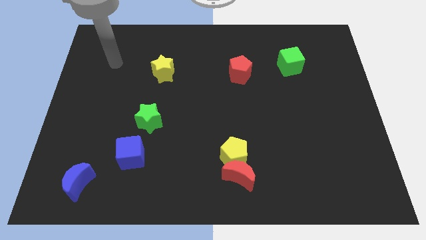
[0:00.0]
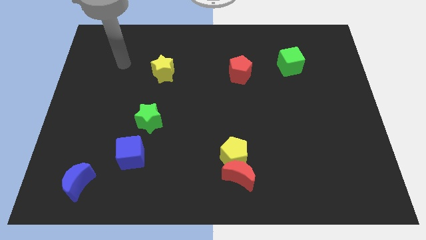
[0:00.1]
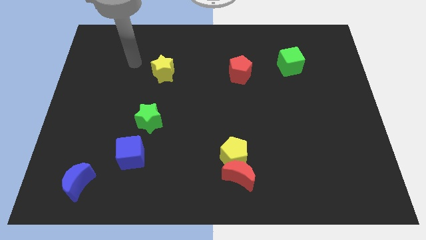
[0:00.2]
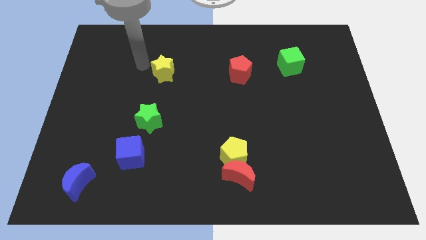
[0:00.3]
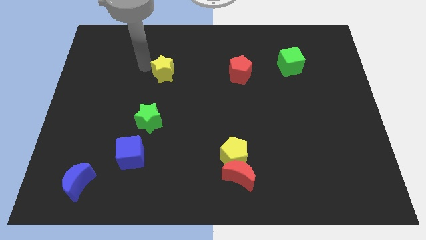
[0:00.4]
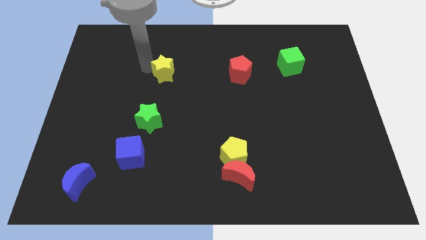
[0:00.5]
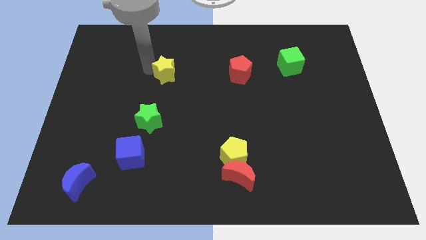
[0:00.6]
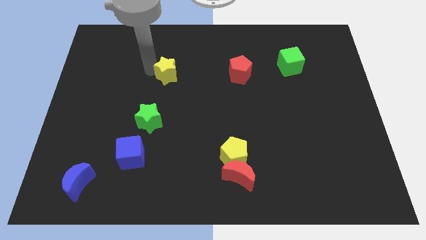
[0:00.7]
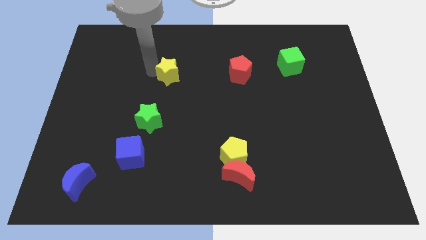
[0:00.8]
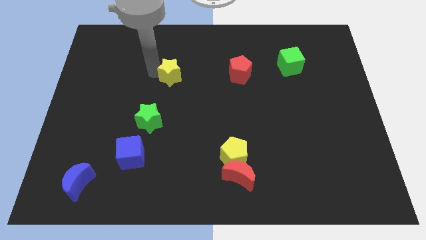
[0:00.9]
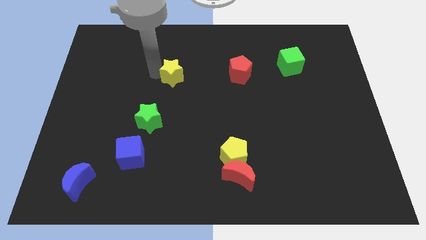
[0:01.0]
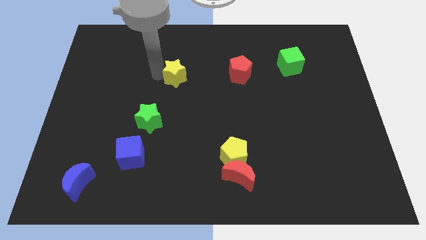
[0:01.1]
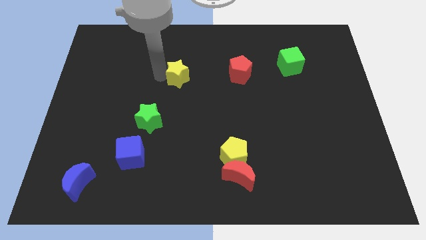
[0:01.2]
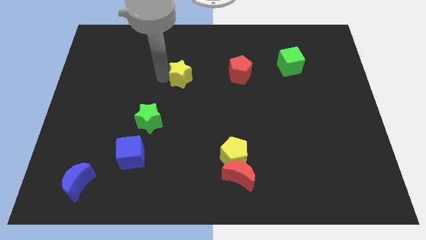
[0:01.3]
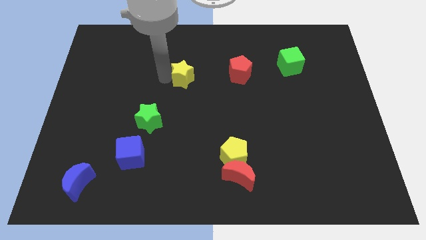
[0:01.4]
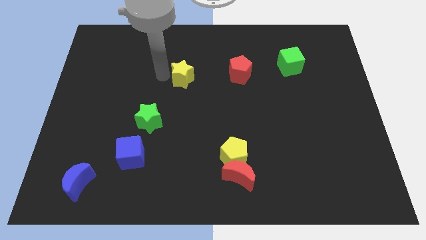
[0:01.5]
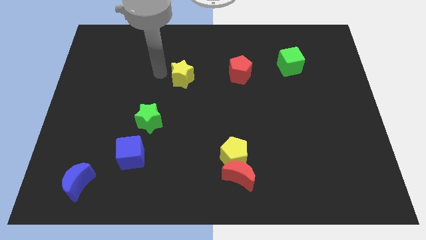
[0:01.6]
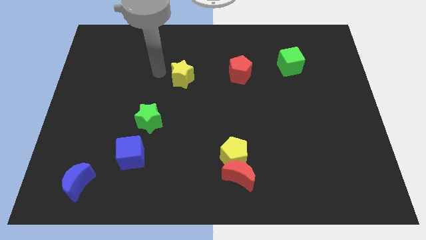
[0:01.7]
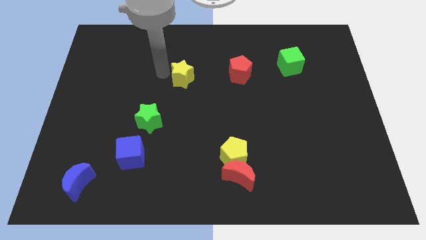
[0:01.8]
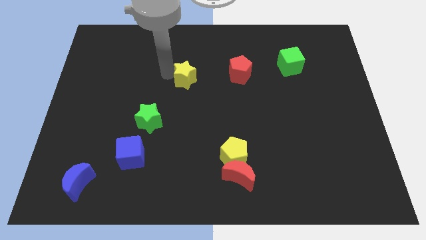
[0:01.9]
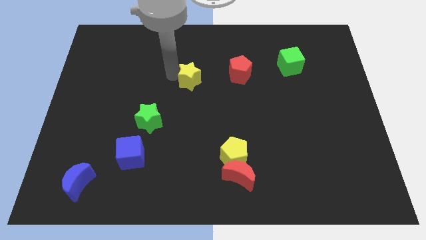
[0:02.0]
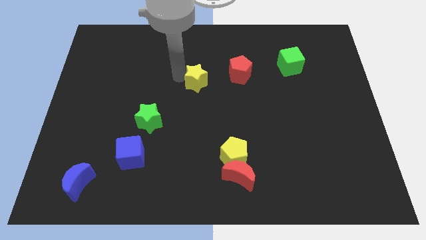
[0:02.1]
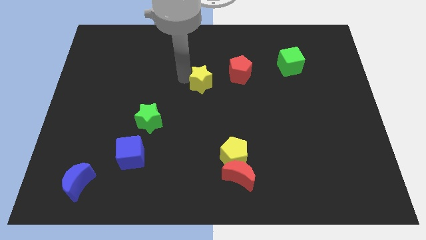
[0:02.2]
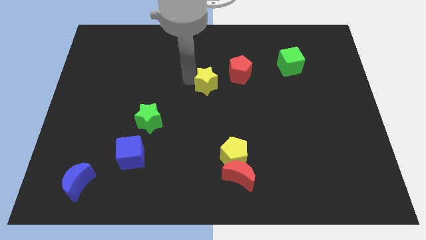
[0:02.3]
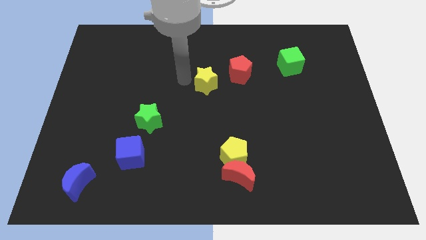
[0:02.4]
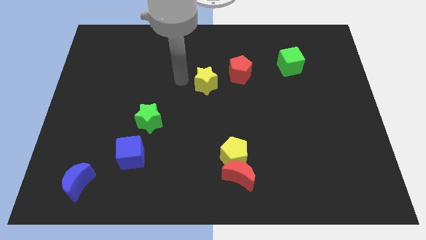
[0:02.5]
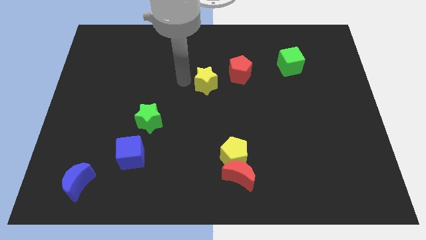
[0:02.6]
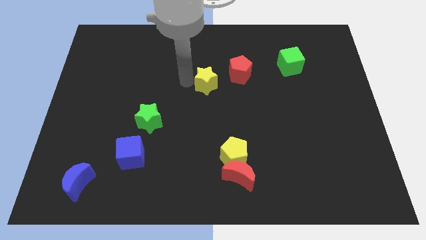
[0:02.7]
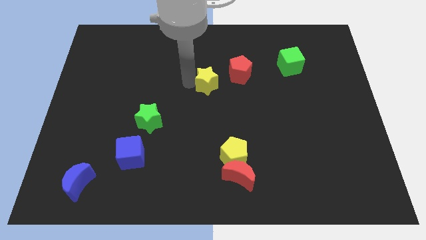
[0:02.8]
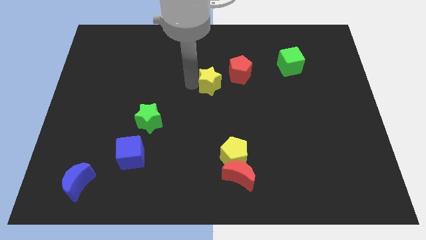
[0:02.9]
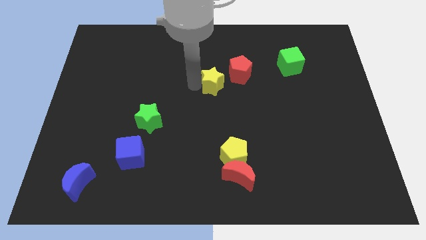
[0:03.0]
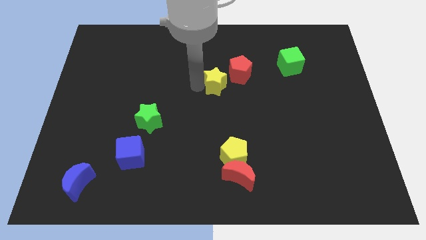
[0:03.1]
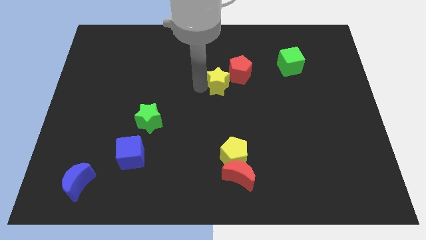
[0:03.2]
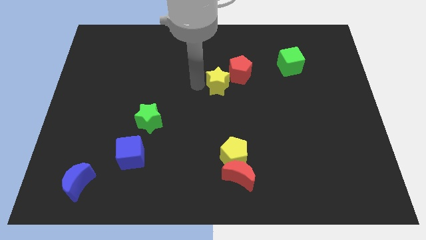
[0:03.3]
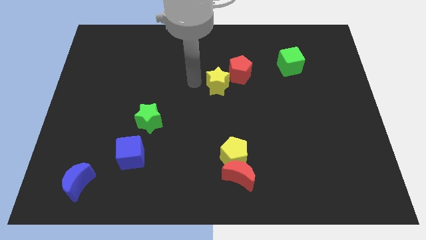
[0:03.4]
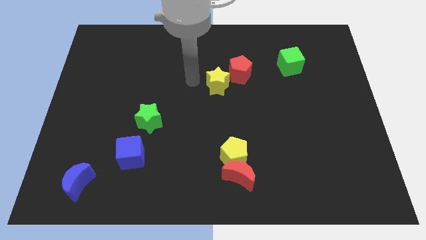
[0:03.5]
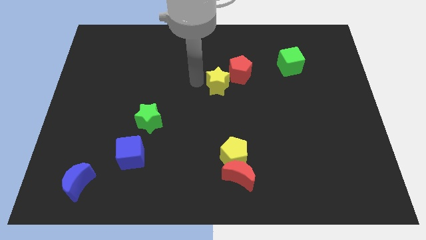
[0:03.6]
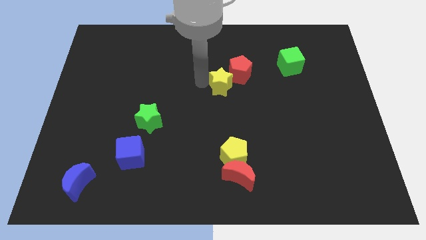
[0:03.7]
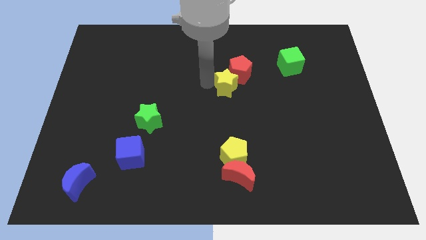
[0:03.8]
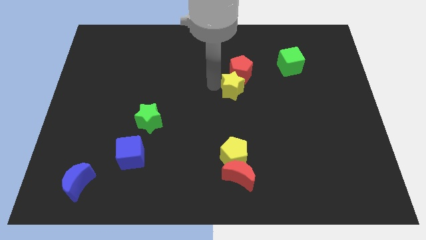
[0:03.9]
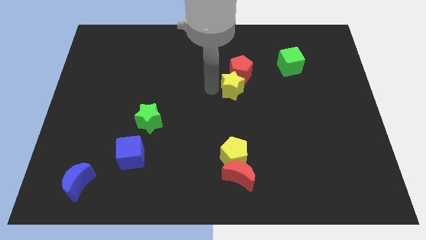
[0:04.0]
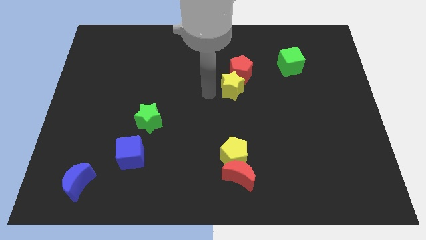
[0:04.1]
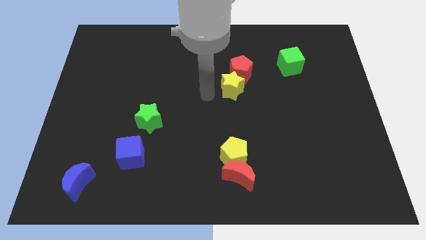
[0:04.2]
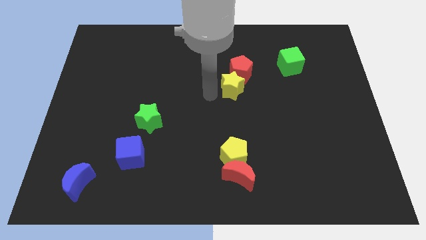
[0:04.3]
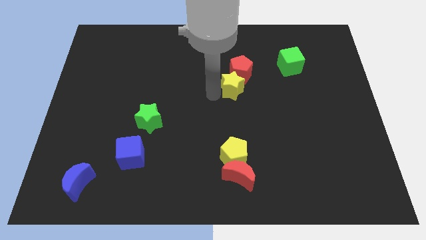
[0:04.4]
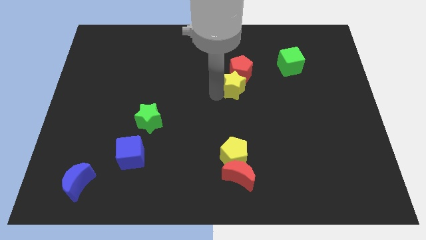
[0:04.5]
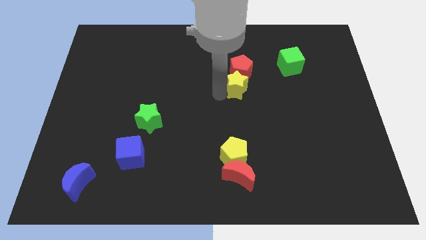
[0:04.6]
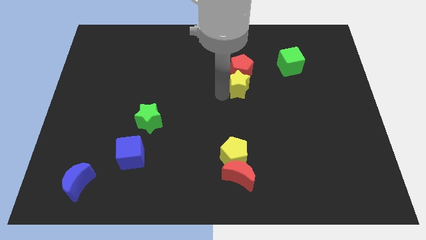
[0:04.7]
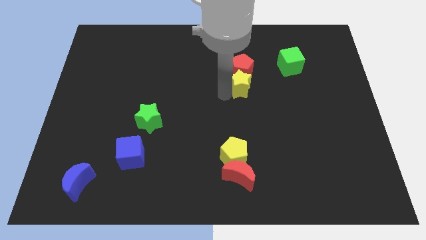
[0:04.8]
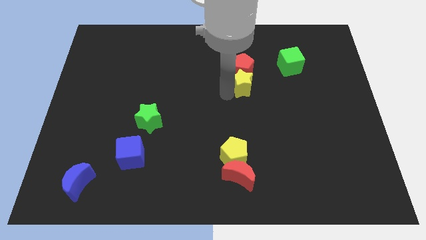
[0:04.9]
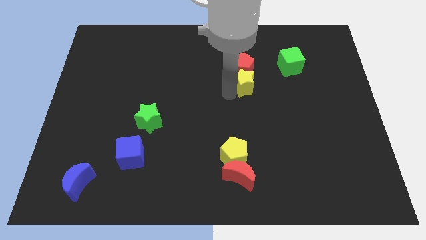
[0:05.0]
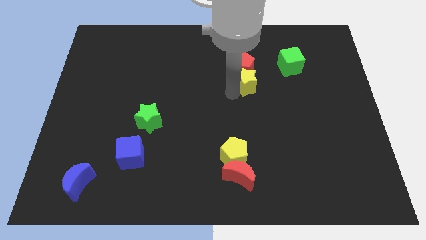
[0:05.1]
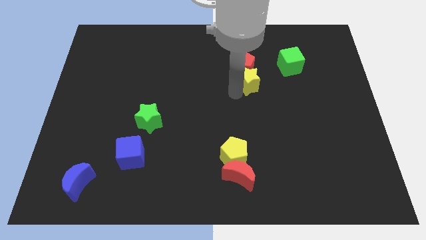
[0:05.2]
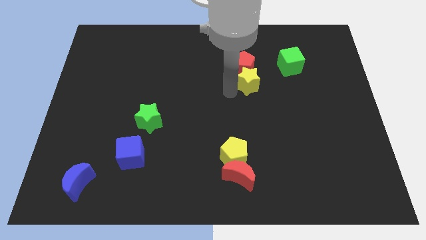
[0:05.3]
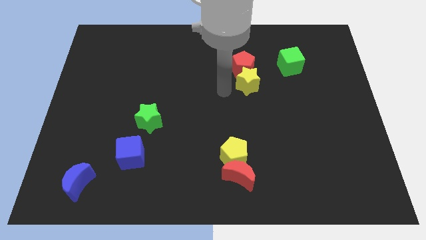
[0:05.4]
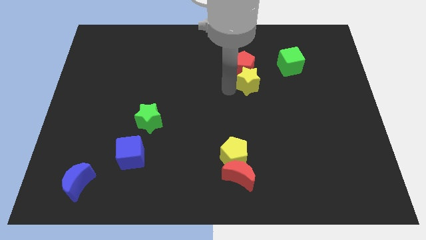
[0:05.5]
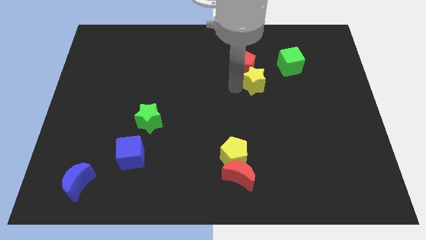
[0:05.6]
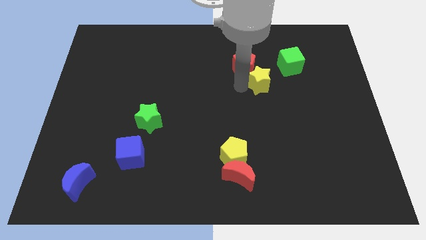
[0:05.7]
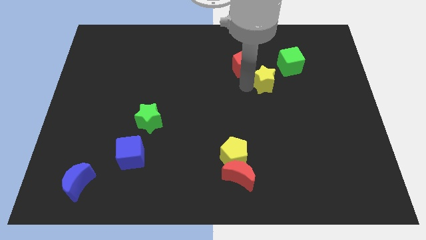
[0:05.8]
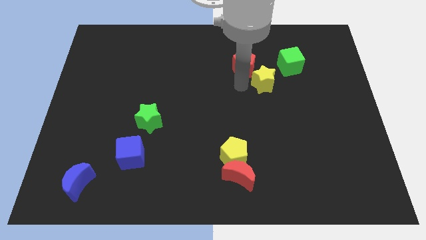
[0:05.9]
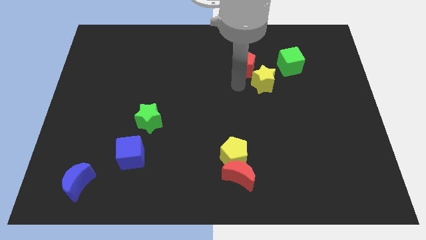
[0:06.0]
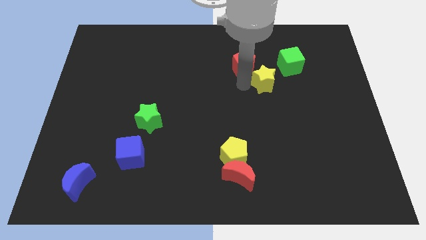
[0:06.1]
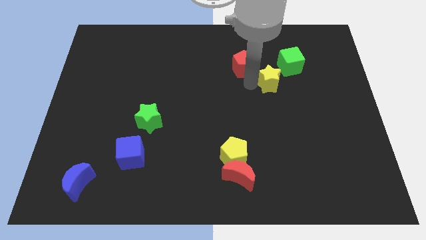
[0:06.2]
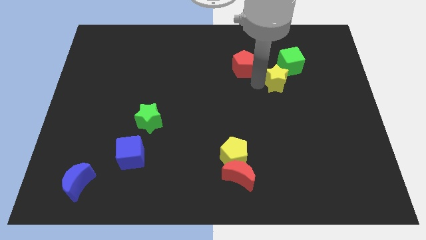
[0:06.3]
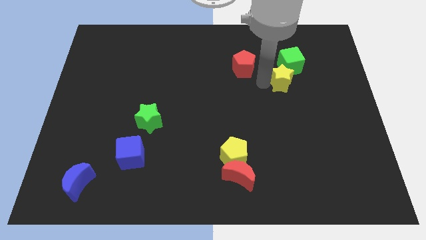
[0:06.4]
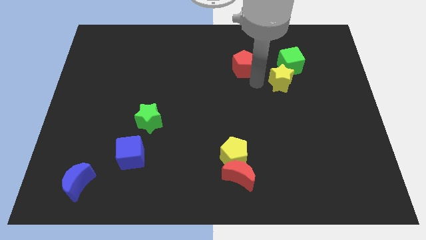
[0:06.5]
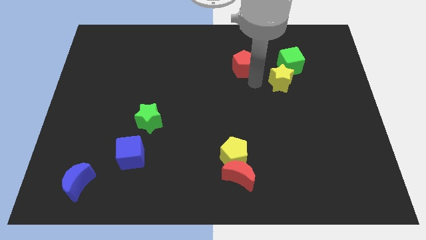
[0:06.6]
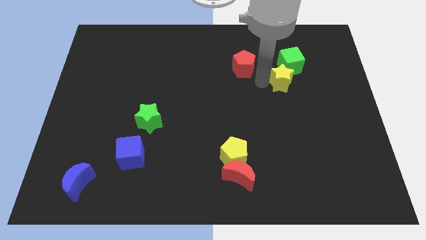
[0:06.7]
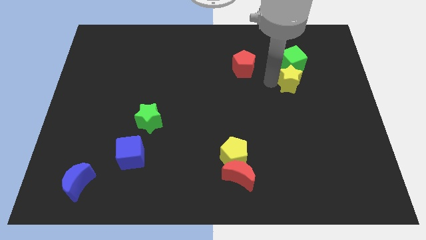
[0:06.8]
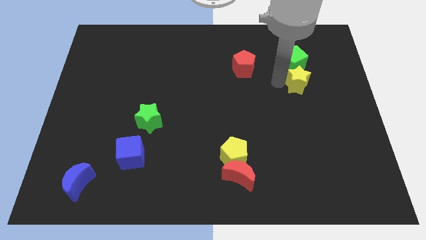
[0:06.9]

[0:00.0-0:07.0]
put the yellow star to the bottom right side of the green cube
